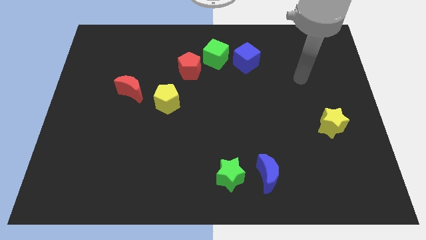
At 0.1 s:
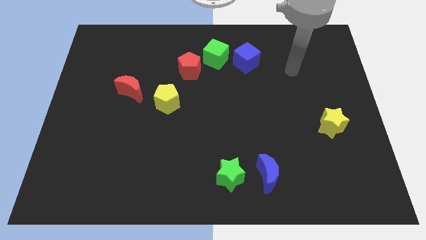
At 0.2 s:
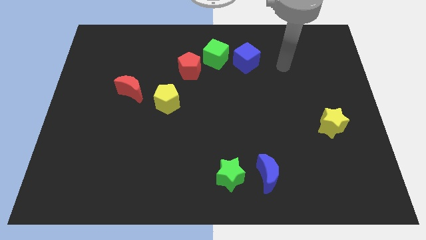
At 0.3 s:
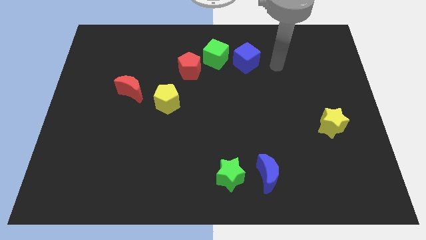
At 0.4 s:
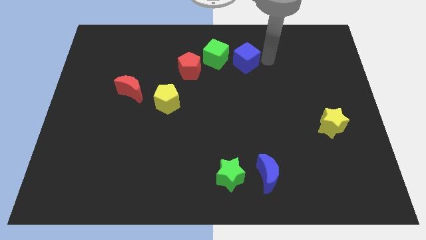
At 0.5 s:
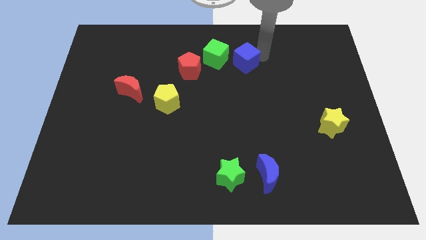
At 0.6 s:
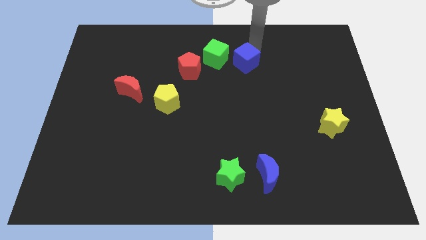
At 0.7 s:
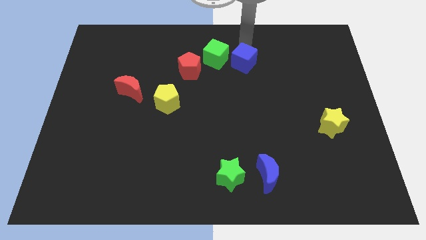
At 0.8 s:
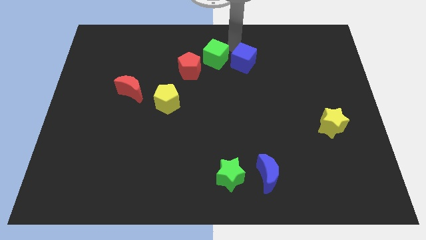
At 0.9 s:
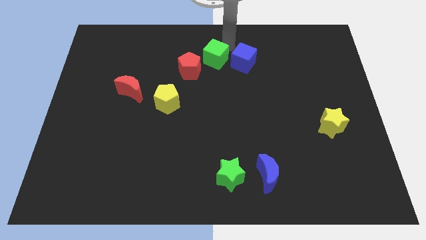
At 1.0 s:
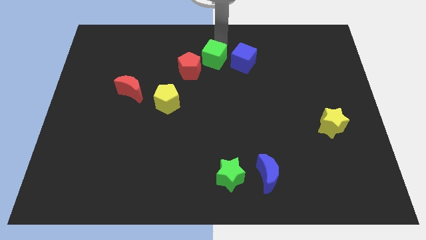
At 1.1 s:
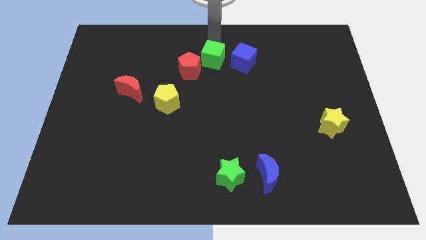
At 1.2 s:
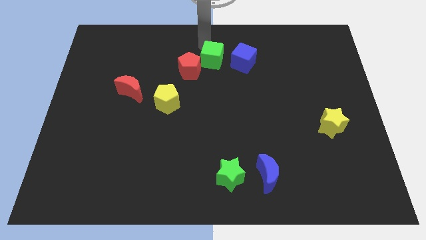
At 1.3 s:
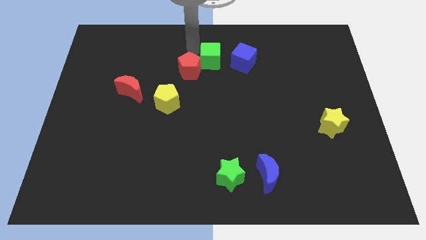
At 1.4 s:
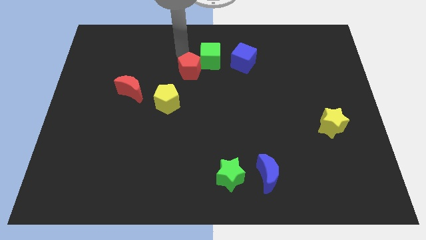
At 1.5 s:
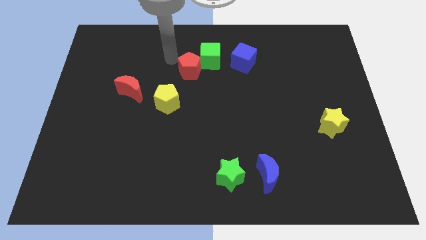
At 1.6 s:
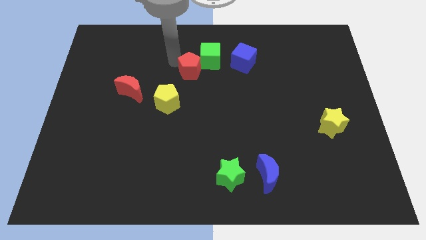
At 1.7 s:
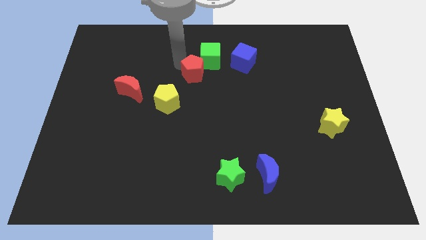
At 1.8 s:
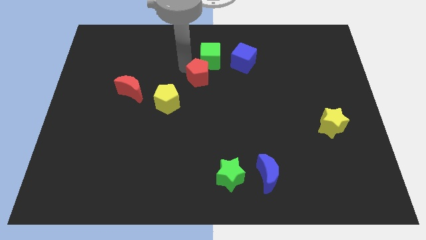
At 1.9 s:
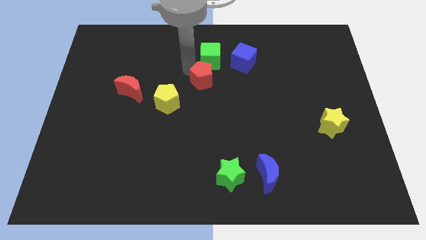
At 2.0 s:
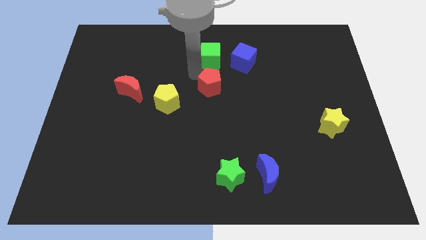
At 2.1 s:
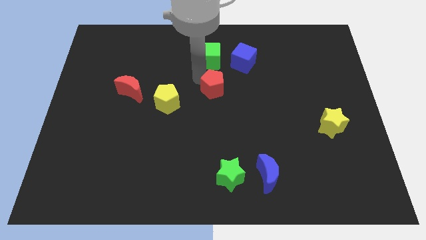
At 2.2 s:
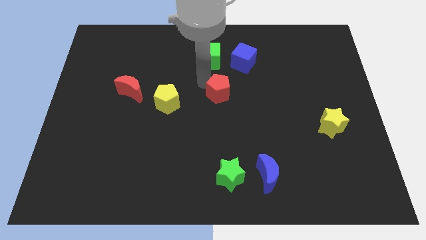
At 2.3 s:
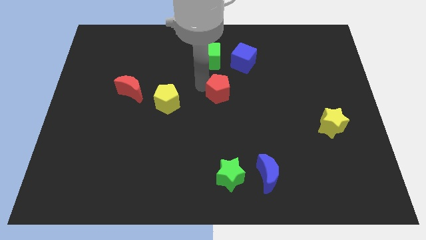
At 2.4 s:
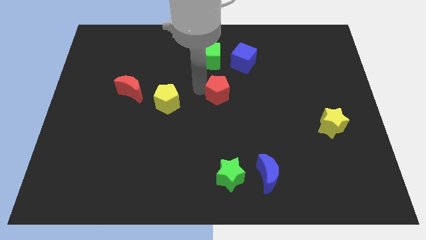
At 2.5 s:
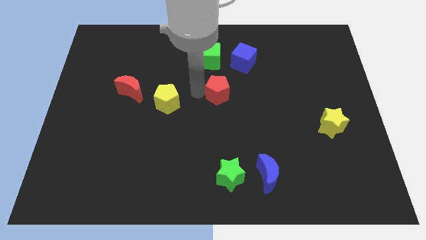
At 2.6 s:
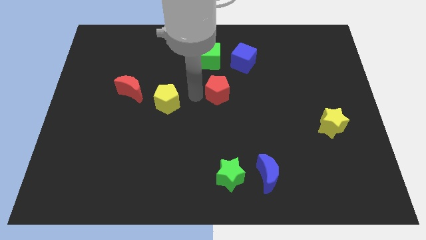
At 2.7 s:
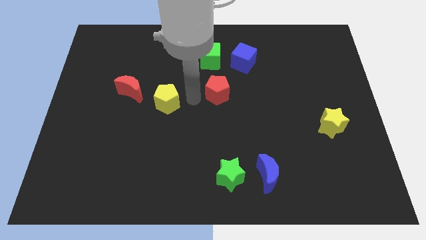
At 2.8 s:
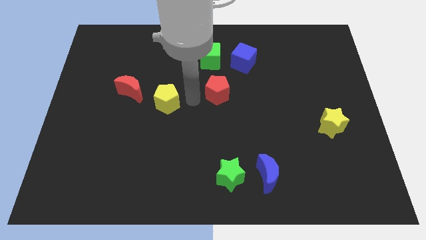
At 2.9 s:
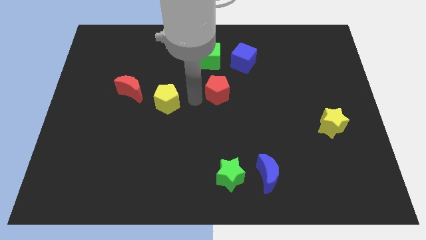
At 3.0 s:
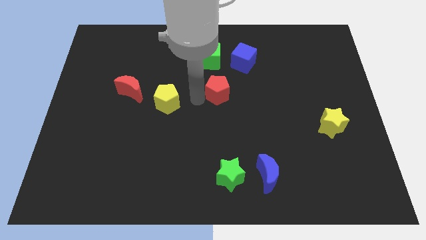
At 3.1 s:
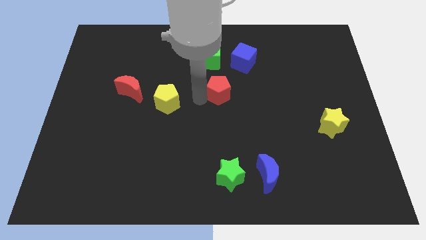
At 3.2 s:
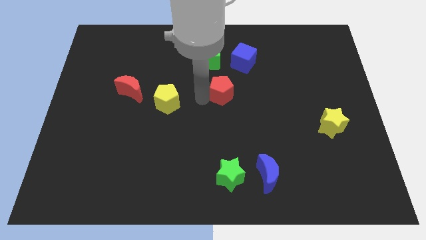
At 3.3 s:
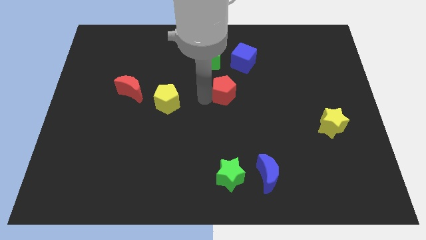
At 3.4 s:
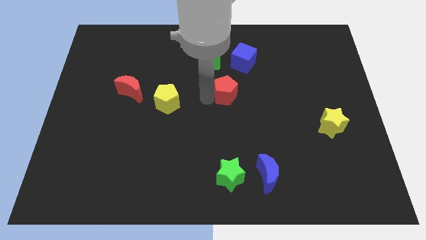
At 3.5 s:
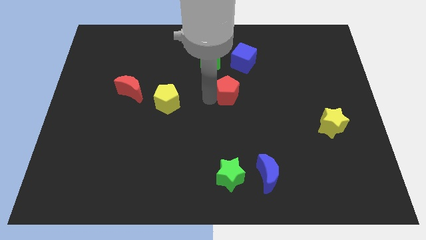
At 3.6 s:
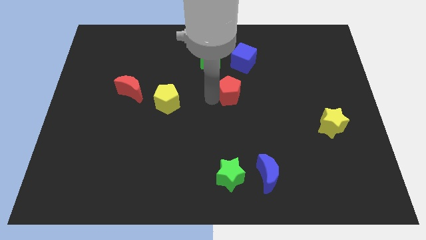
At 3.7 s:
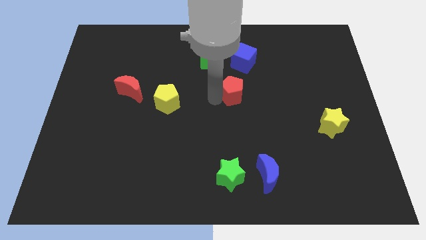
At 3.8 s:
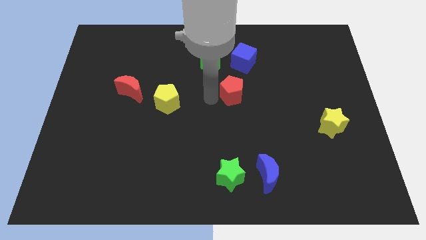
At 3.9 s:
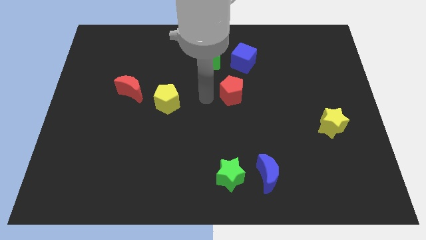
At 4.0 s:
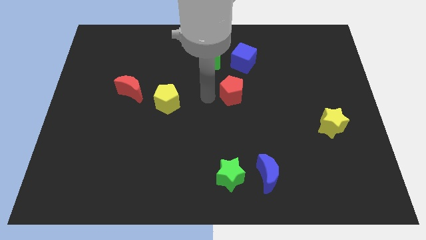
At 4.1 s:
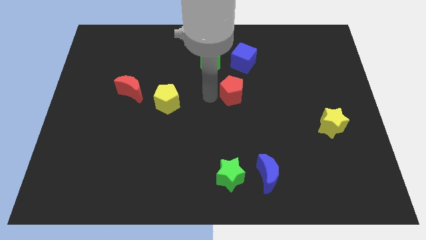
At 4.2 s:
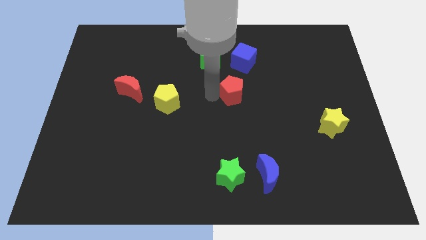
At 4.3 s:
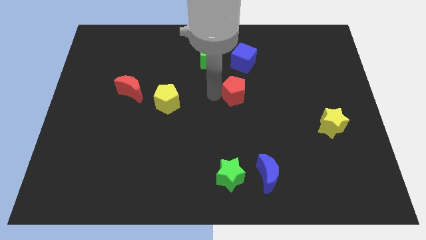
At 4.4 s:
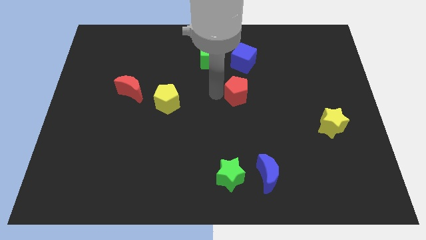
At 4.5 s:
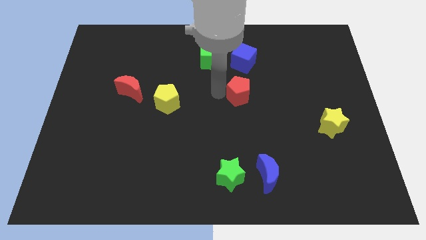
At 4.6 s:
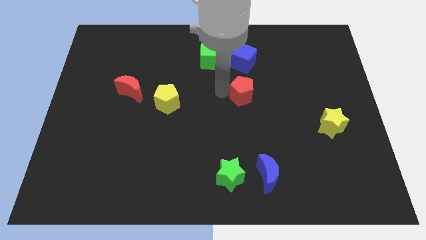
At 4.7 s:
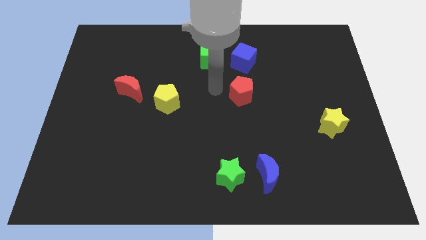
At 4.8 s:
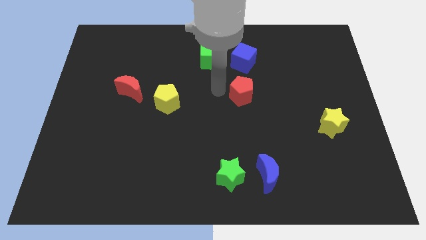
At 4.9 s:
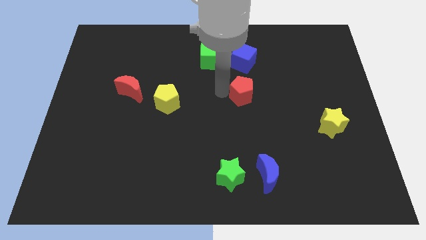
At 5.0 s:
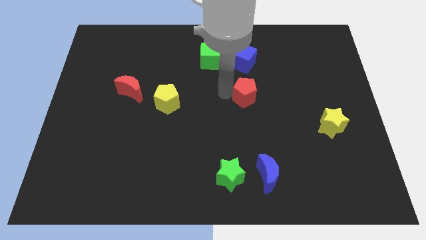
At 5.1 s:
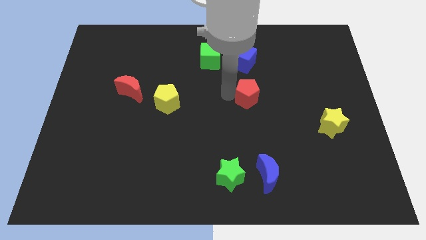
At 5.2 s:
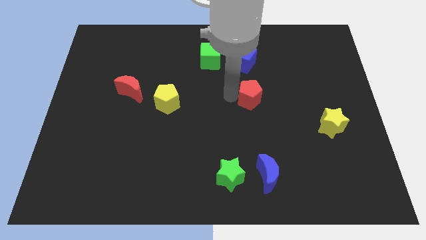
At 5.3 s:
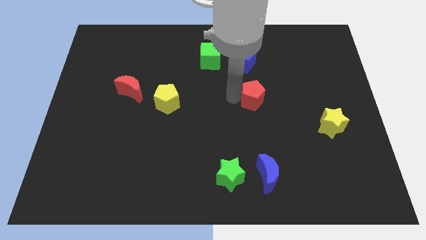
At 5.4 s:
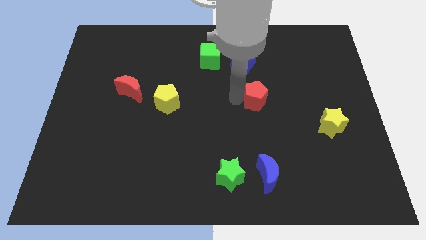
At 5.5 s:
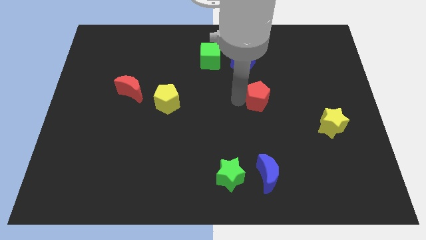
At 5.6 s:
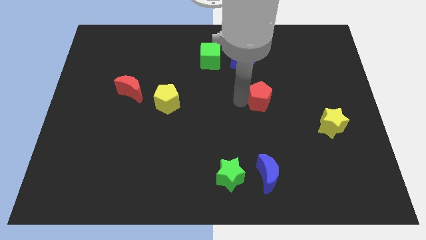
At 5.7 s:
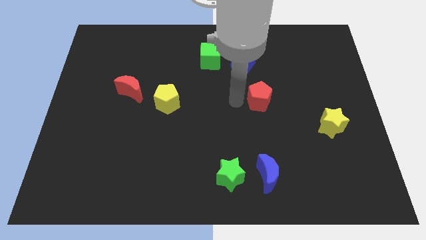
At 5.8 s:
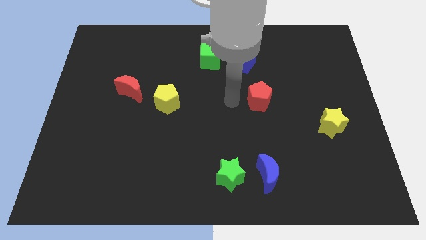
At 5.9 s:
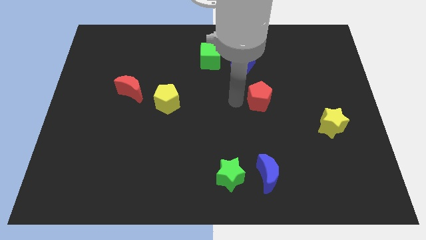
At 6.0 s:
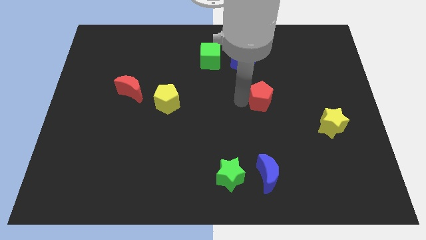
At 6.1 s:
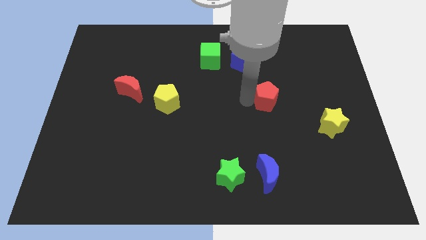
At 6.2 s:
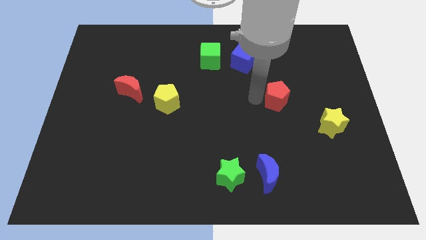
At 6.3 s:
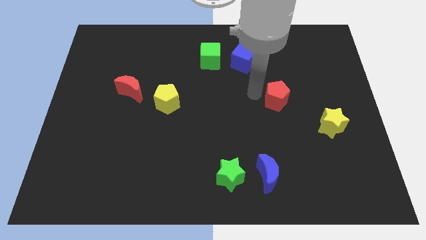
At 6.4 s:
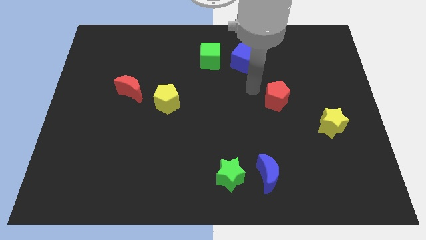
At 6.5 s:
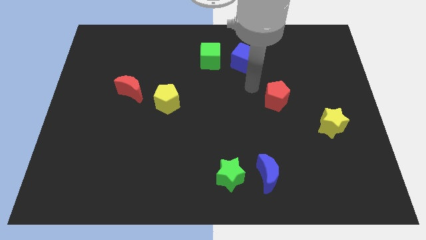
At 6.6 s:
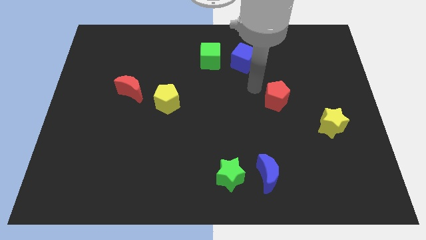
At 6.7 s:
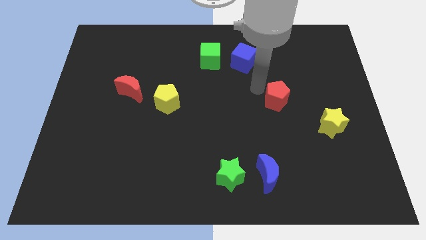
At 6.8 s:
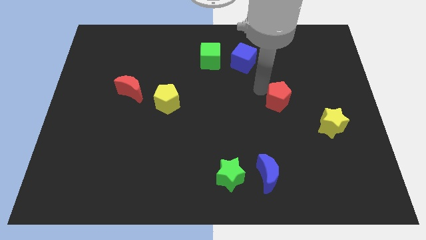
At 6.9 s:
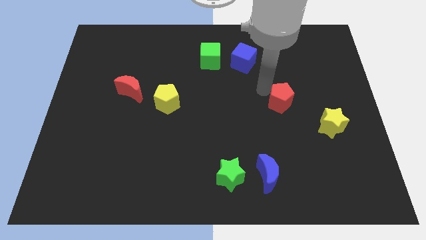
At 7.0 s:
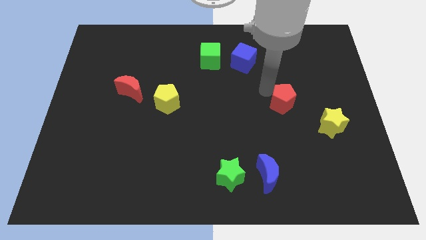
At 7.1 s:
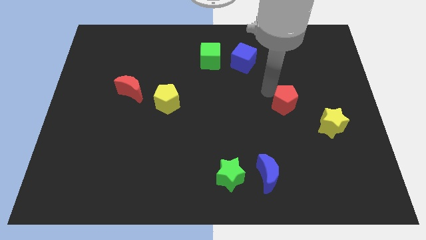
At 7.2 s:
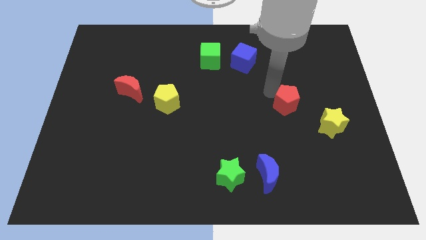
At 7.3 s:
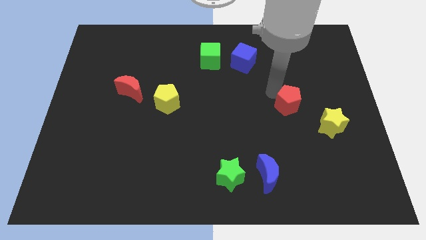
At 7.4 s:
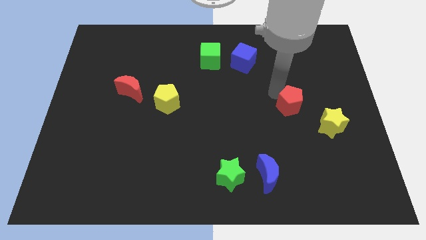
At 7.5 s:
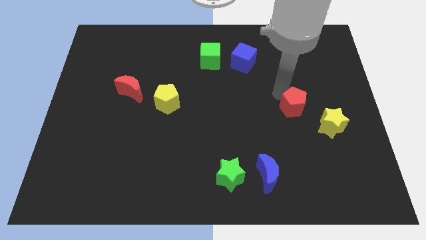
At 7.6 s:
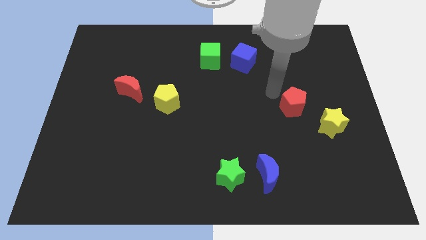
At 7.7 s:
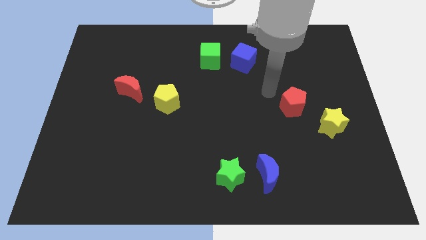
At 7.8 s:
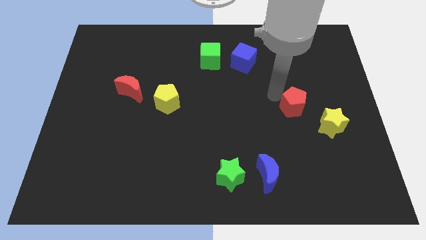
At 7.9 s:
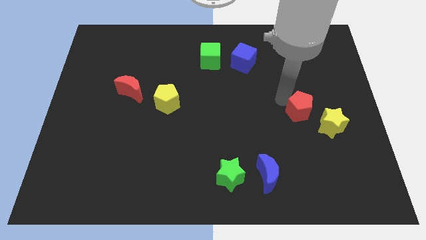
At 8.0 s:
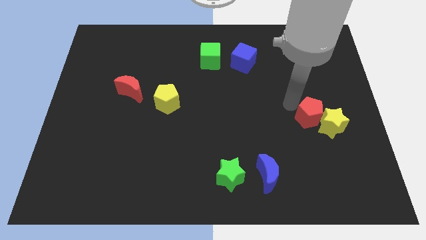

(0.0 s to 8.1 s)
move the red pentagon to the yellow star
